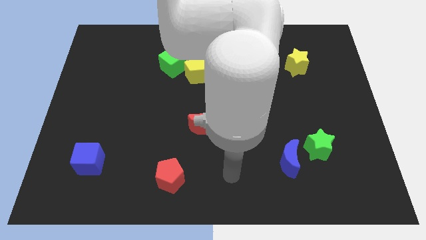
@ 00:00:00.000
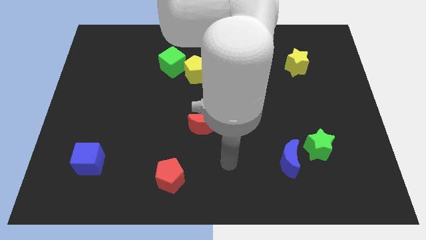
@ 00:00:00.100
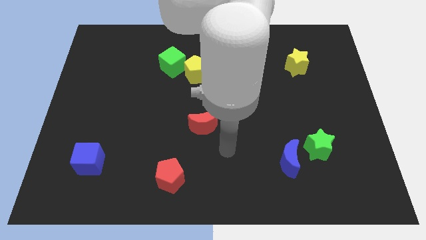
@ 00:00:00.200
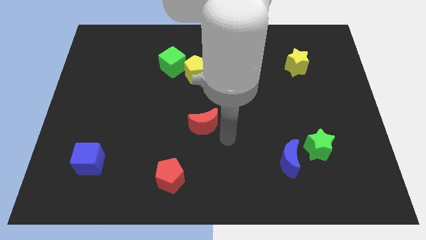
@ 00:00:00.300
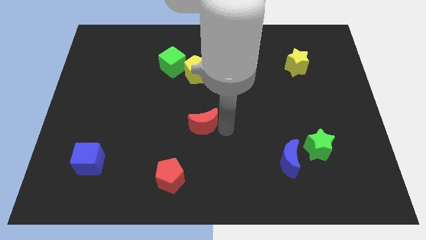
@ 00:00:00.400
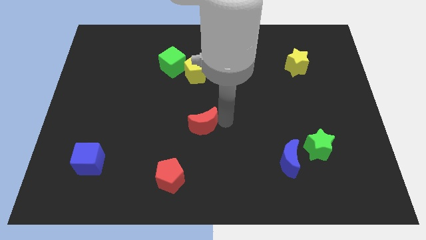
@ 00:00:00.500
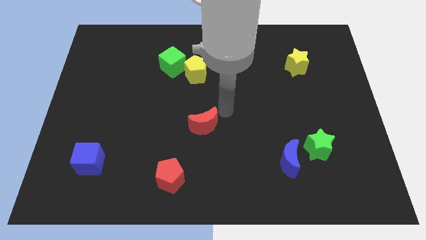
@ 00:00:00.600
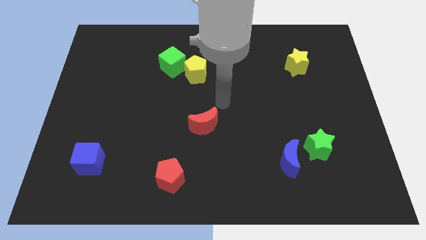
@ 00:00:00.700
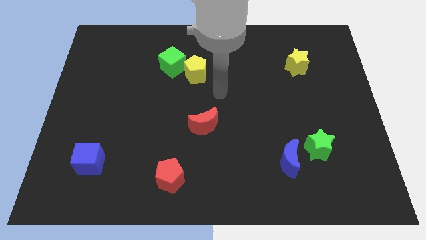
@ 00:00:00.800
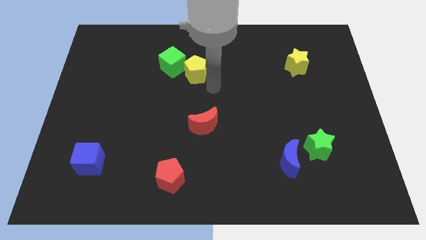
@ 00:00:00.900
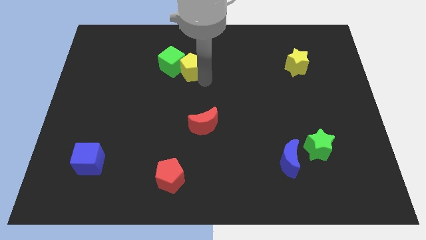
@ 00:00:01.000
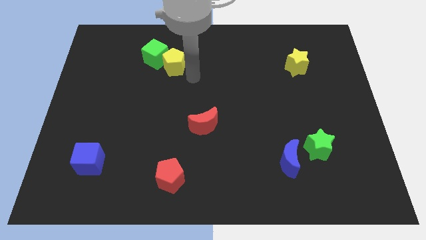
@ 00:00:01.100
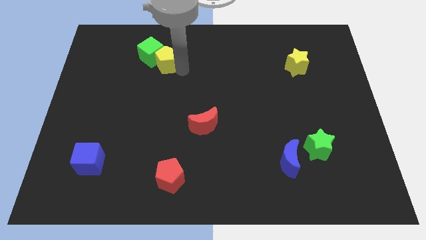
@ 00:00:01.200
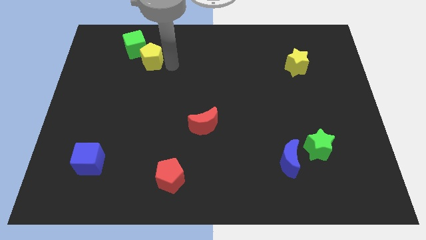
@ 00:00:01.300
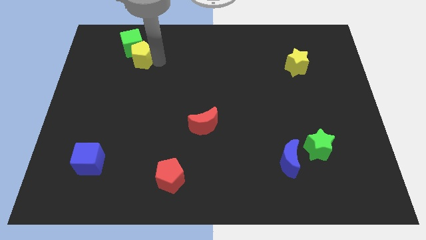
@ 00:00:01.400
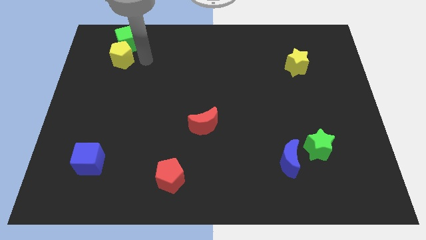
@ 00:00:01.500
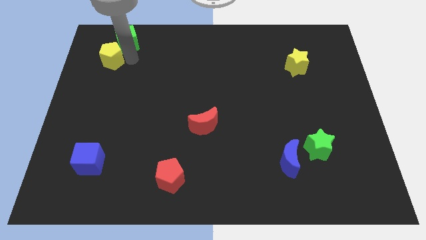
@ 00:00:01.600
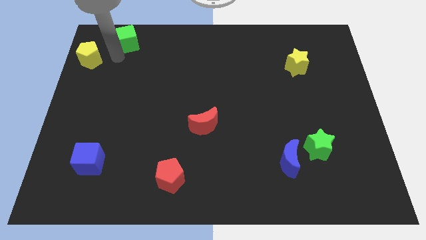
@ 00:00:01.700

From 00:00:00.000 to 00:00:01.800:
separate the green cube from the yellow pentagon

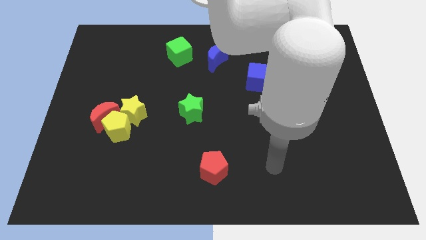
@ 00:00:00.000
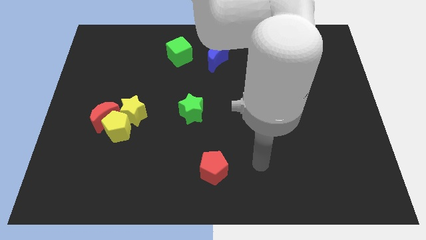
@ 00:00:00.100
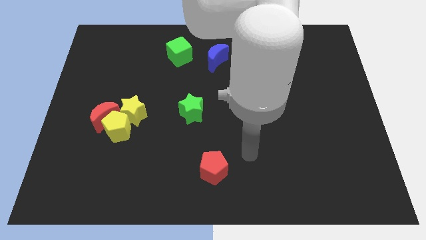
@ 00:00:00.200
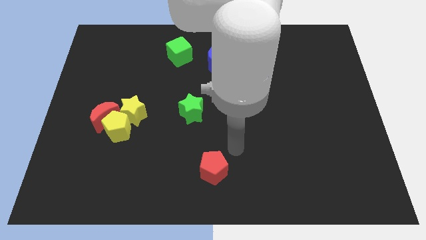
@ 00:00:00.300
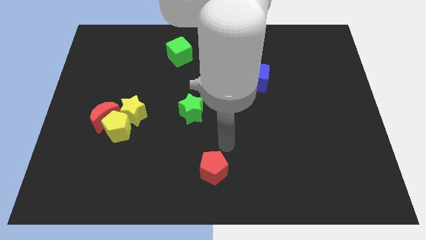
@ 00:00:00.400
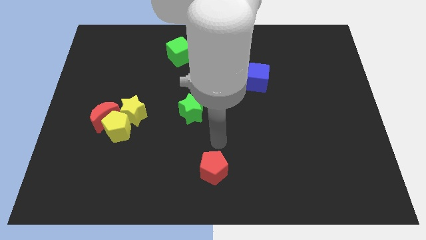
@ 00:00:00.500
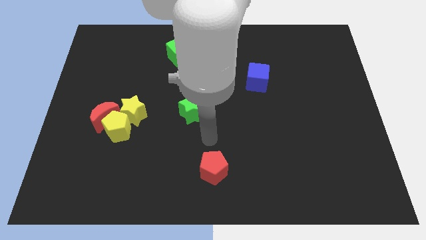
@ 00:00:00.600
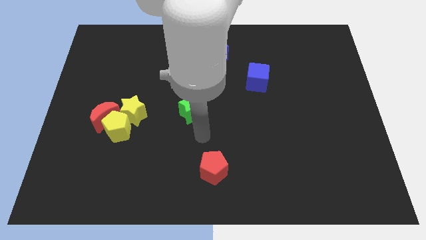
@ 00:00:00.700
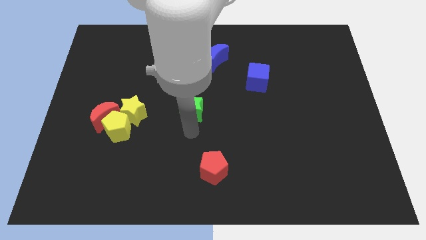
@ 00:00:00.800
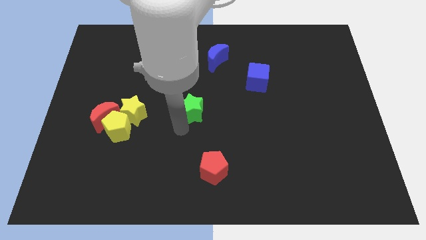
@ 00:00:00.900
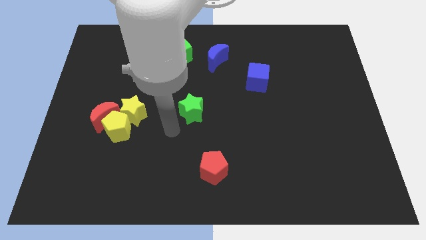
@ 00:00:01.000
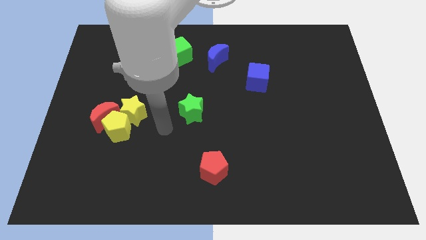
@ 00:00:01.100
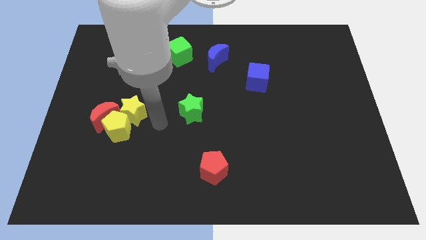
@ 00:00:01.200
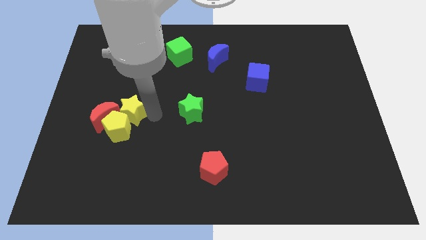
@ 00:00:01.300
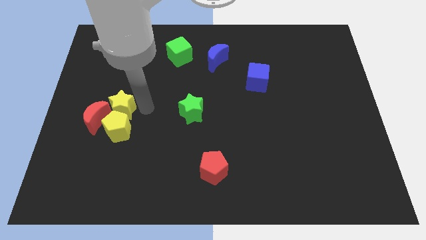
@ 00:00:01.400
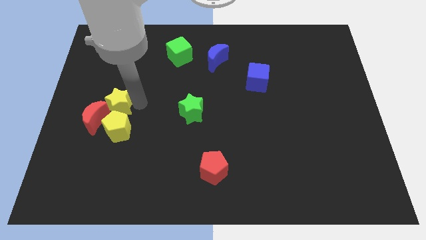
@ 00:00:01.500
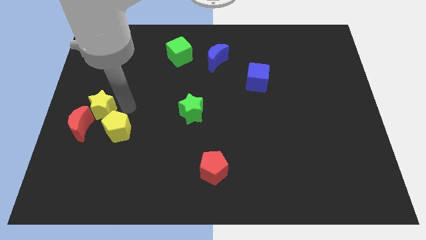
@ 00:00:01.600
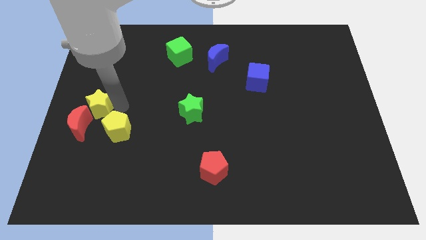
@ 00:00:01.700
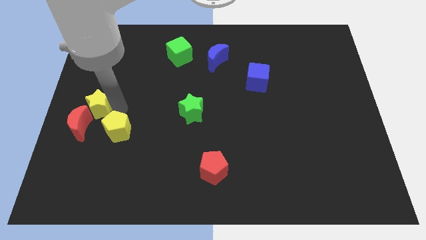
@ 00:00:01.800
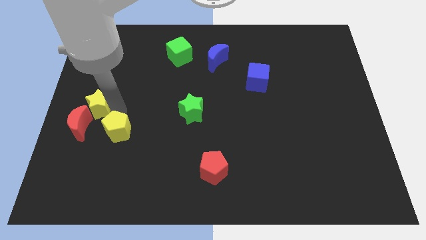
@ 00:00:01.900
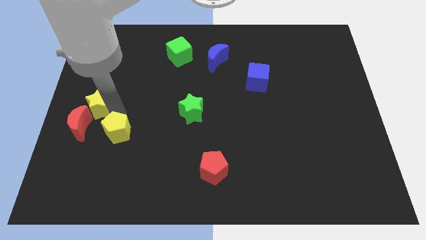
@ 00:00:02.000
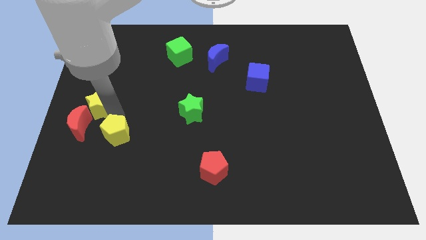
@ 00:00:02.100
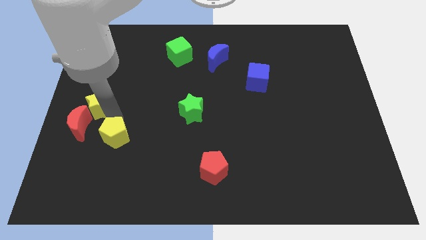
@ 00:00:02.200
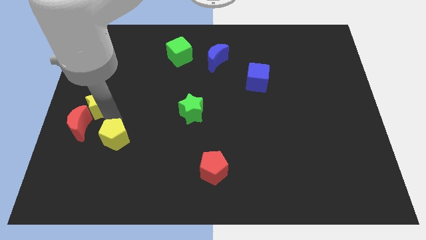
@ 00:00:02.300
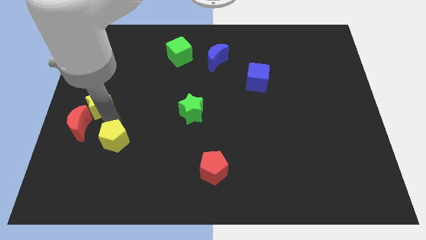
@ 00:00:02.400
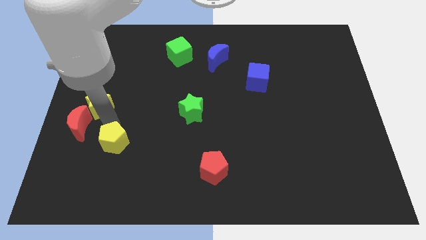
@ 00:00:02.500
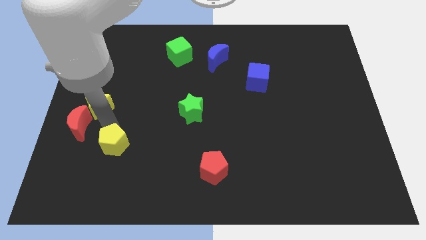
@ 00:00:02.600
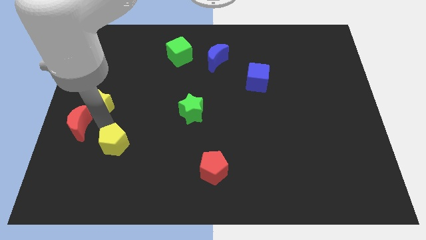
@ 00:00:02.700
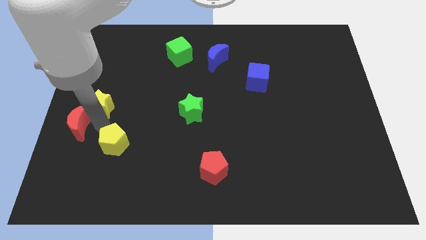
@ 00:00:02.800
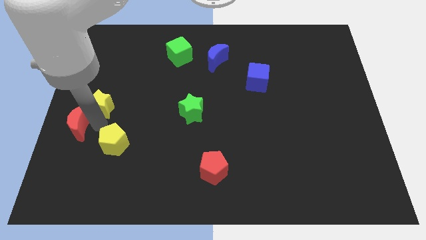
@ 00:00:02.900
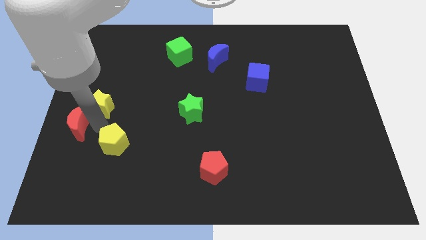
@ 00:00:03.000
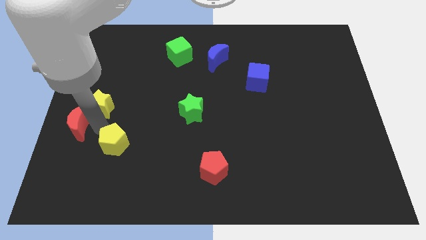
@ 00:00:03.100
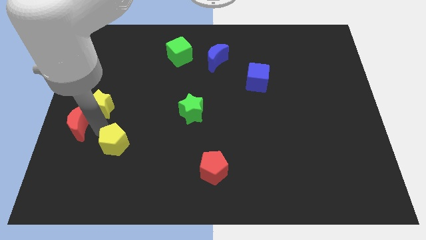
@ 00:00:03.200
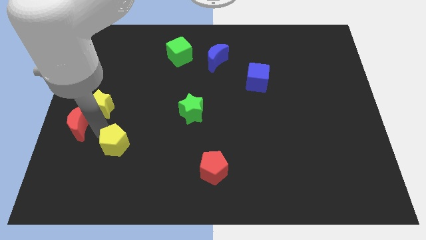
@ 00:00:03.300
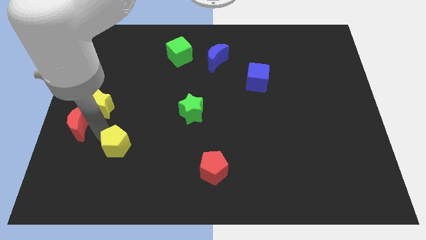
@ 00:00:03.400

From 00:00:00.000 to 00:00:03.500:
pull the yellow pentagon apart from the red moon and yellow star

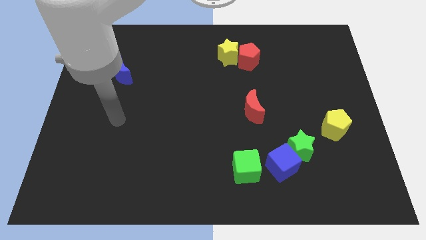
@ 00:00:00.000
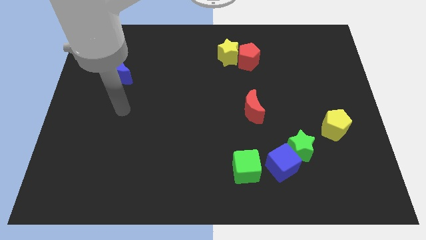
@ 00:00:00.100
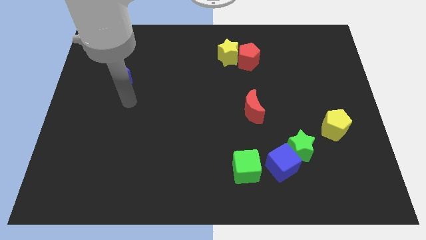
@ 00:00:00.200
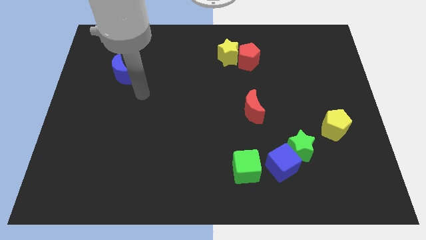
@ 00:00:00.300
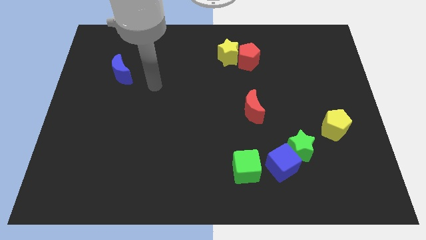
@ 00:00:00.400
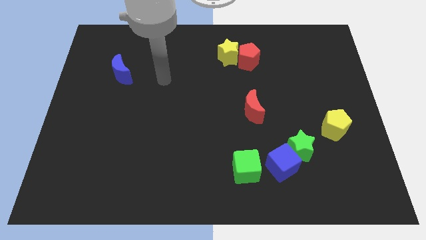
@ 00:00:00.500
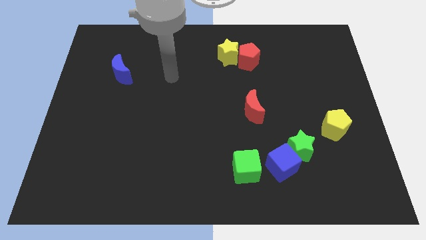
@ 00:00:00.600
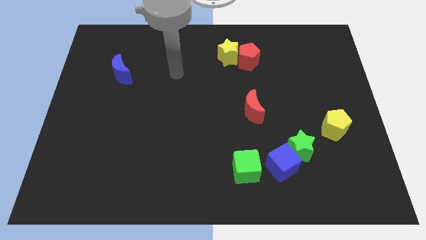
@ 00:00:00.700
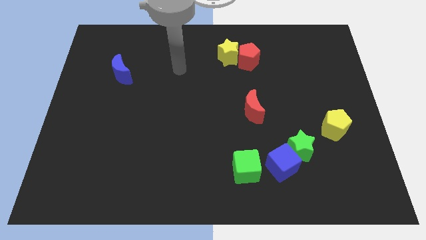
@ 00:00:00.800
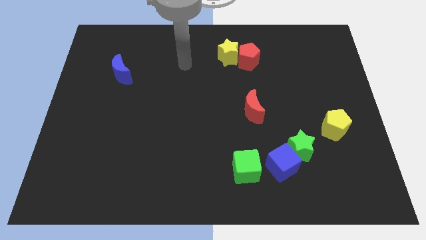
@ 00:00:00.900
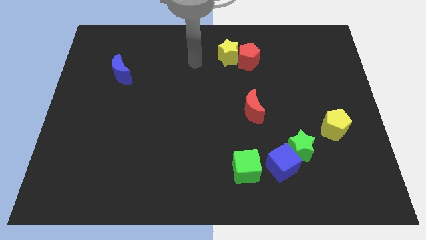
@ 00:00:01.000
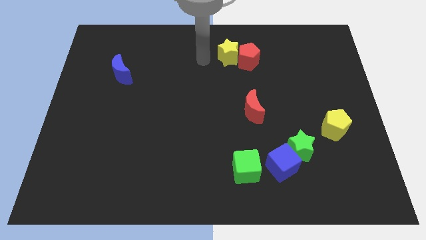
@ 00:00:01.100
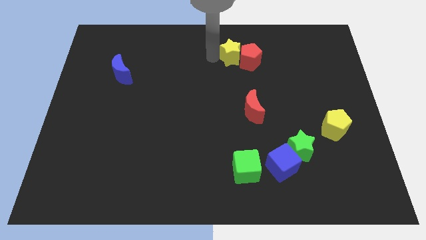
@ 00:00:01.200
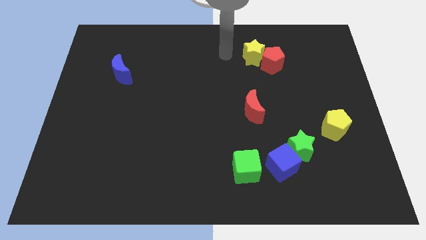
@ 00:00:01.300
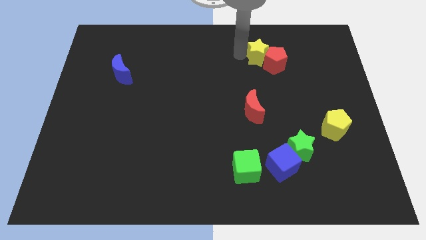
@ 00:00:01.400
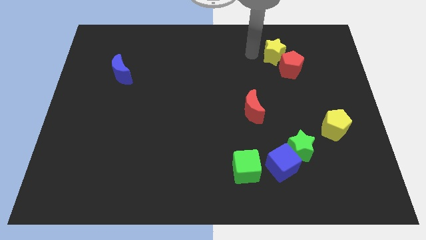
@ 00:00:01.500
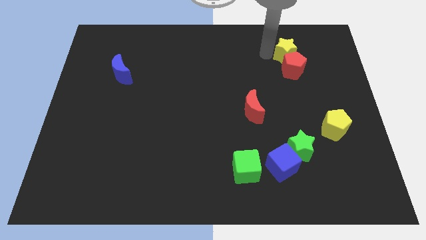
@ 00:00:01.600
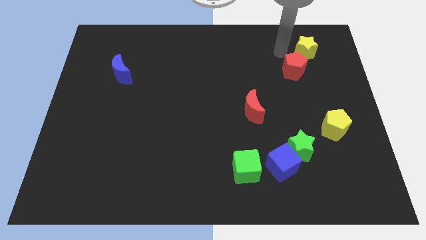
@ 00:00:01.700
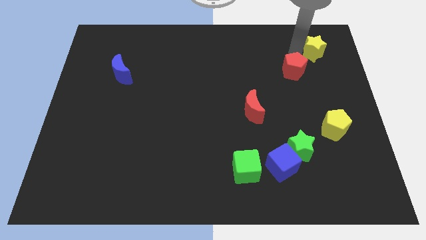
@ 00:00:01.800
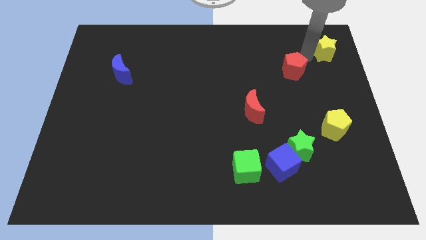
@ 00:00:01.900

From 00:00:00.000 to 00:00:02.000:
move the red pentagon away from the yellow star

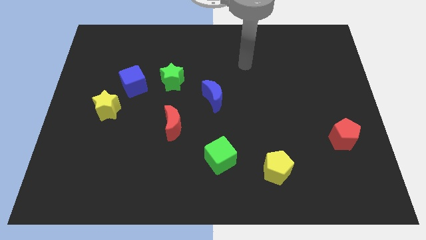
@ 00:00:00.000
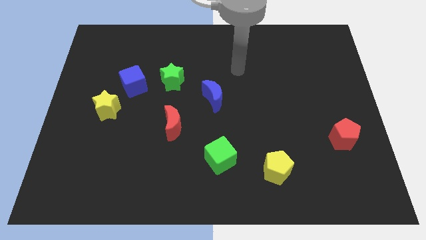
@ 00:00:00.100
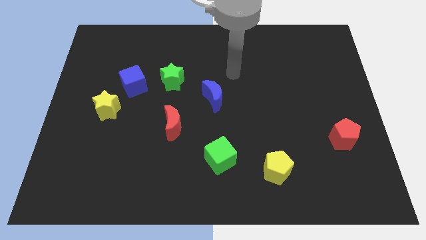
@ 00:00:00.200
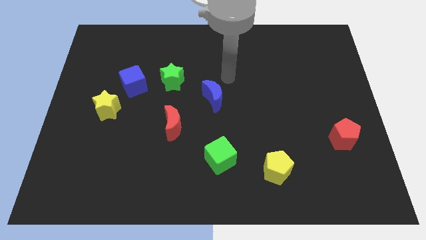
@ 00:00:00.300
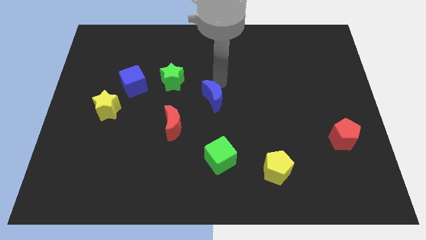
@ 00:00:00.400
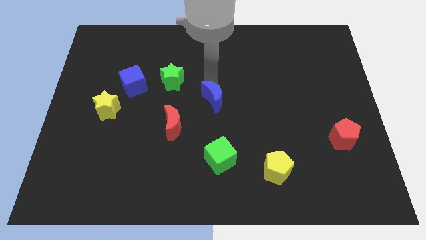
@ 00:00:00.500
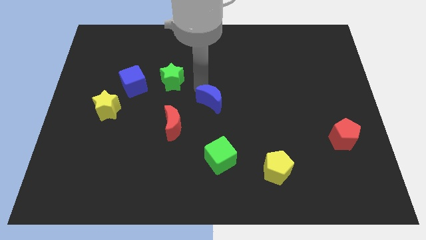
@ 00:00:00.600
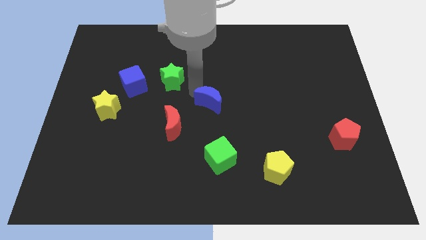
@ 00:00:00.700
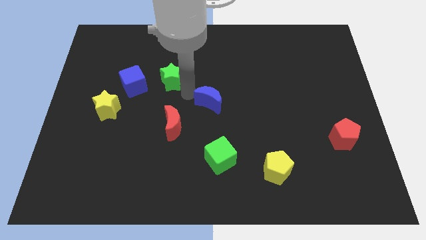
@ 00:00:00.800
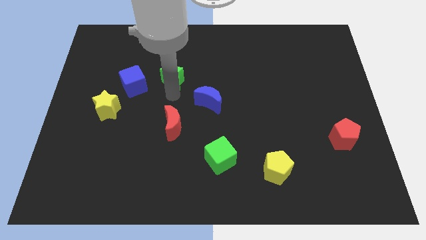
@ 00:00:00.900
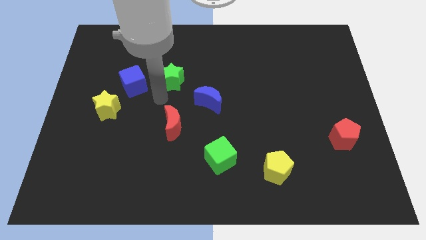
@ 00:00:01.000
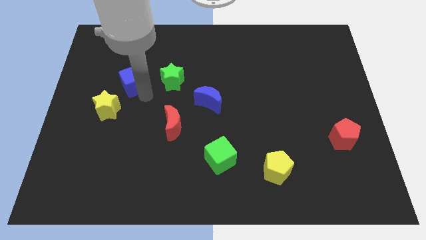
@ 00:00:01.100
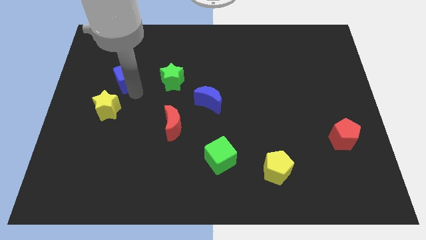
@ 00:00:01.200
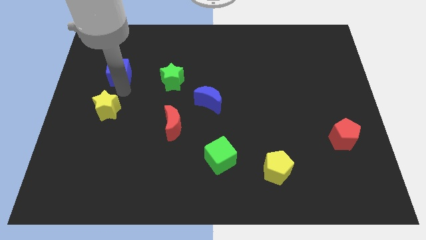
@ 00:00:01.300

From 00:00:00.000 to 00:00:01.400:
pull the yellow star apart from the blue cube

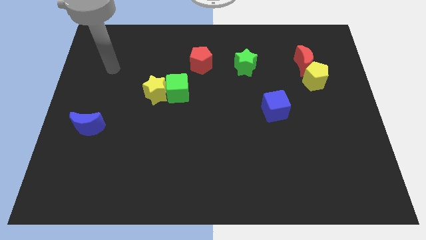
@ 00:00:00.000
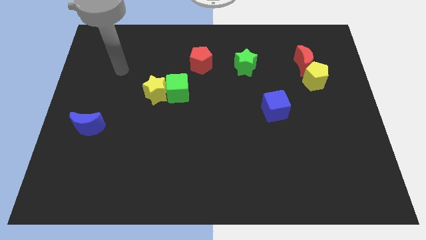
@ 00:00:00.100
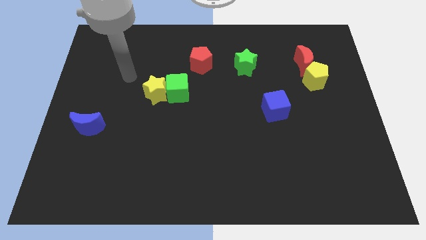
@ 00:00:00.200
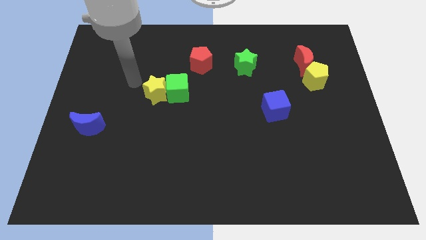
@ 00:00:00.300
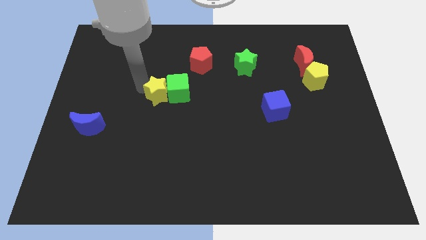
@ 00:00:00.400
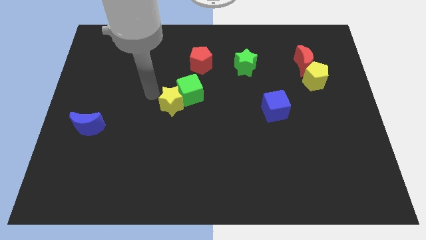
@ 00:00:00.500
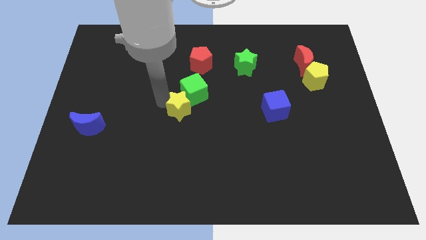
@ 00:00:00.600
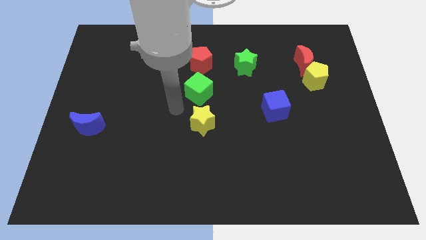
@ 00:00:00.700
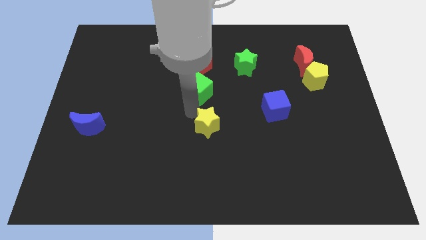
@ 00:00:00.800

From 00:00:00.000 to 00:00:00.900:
separate the green cube from the yellow star
